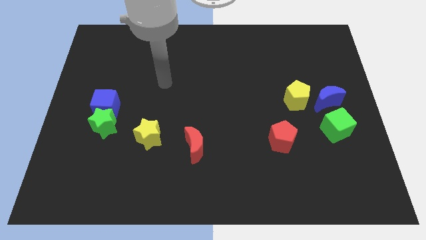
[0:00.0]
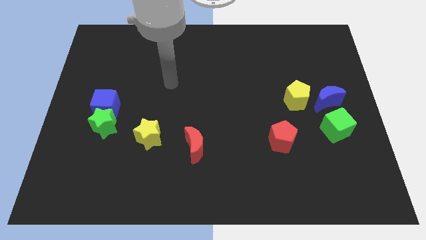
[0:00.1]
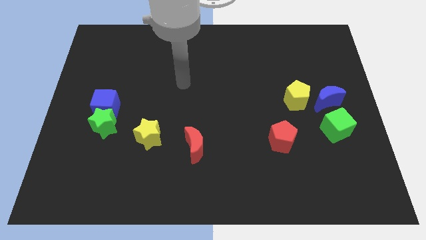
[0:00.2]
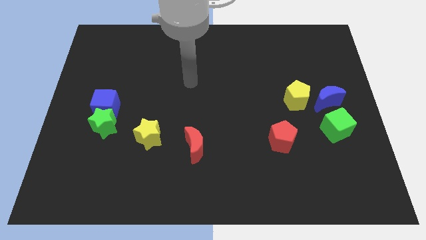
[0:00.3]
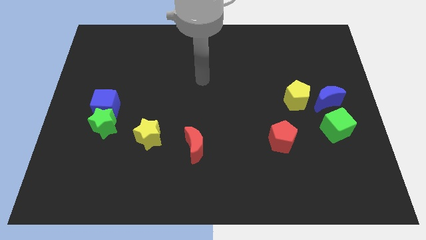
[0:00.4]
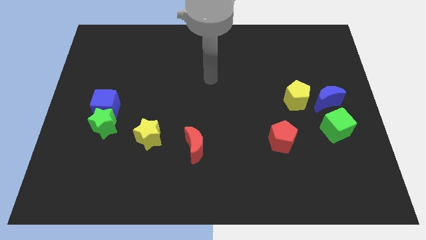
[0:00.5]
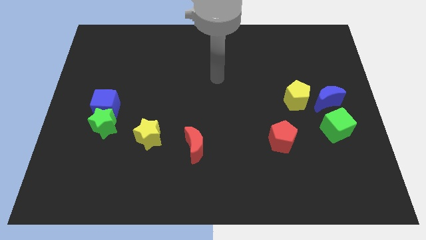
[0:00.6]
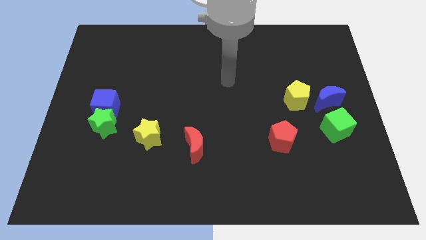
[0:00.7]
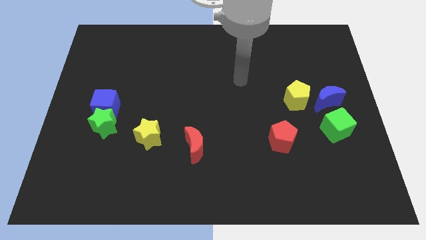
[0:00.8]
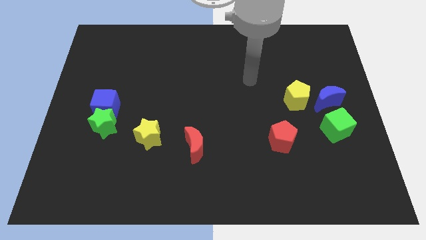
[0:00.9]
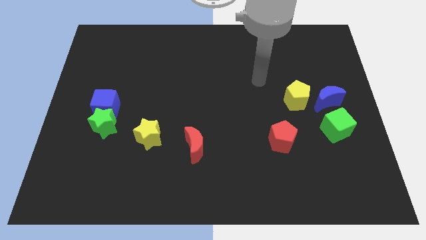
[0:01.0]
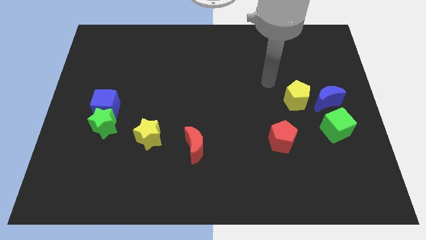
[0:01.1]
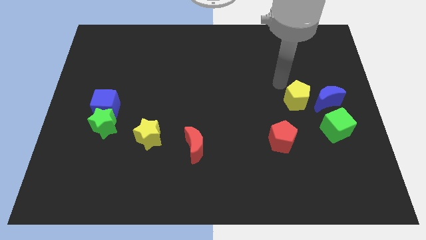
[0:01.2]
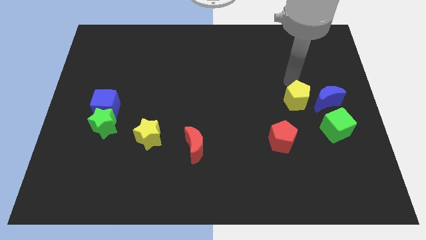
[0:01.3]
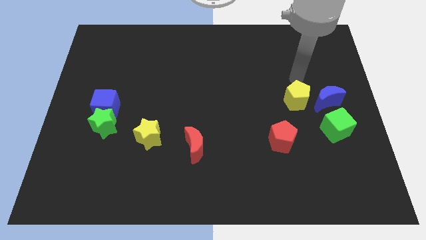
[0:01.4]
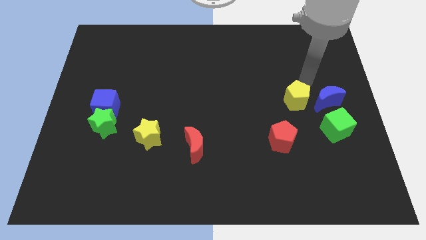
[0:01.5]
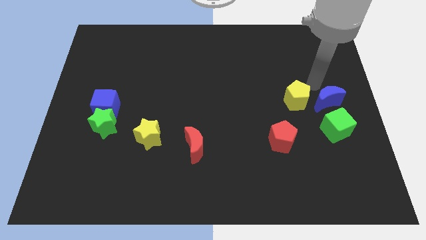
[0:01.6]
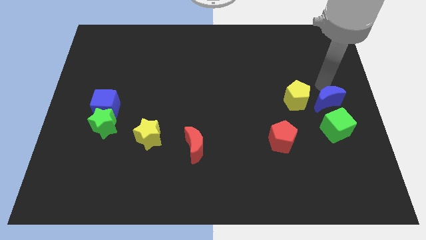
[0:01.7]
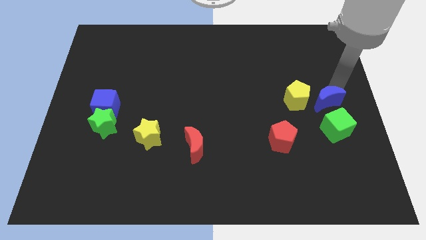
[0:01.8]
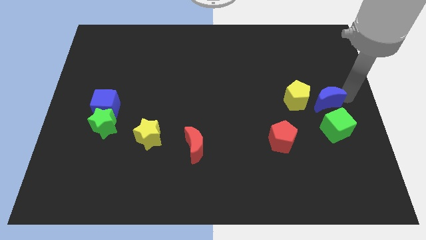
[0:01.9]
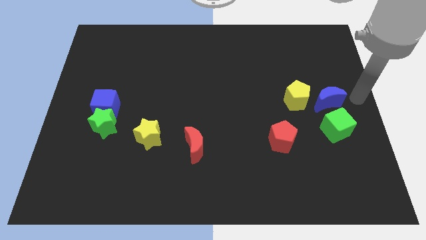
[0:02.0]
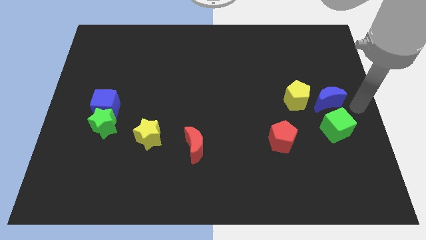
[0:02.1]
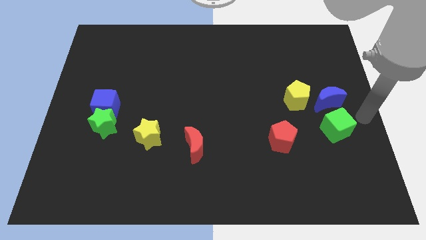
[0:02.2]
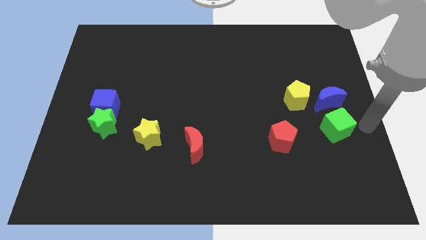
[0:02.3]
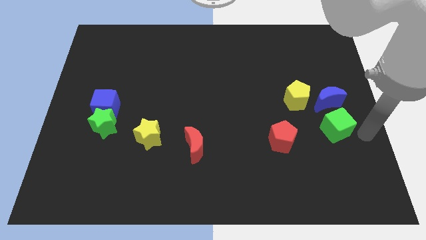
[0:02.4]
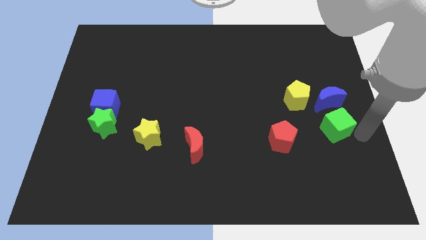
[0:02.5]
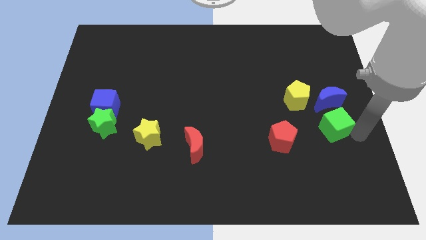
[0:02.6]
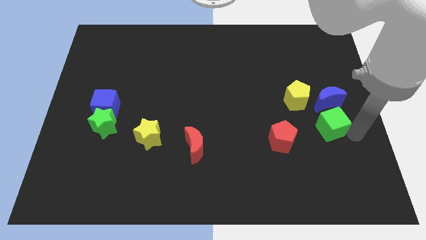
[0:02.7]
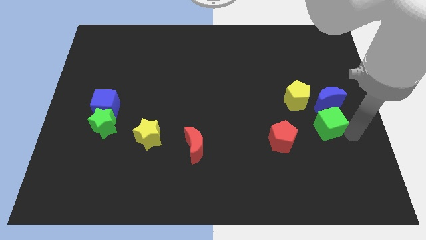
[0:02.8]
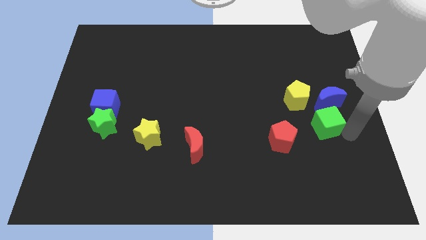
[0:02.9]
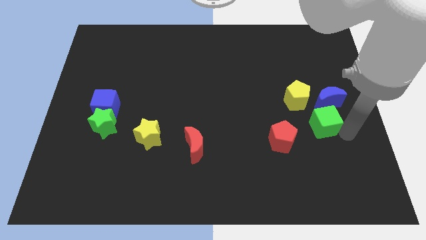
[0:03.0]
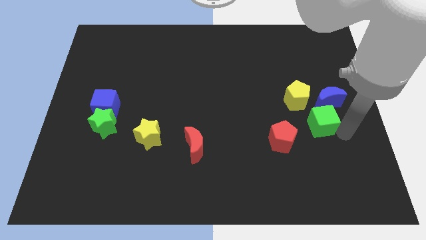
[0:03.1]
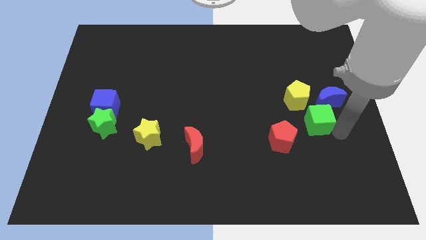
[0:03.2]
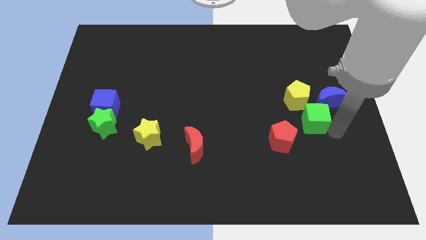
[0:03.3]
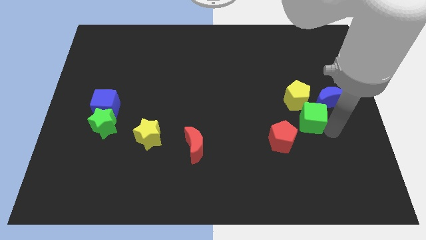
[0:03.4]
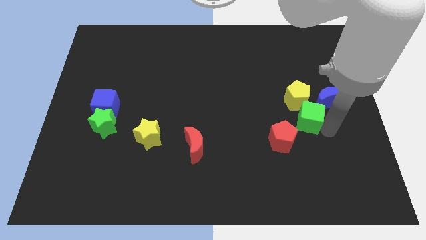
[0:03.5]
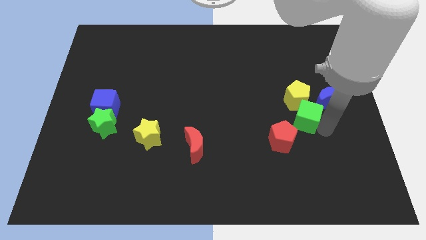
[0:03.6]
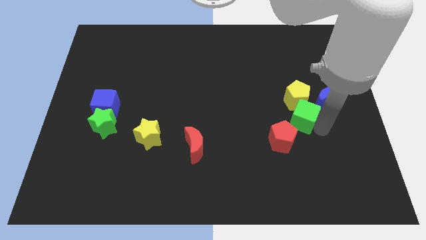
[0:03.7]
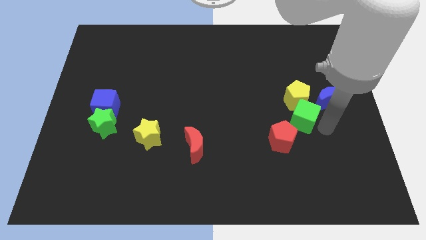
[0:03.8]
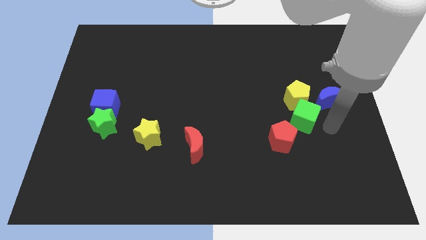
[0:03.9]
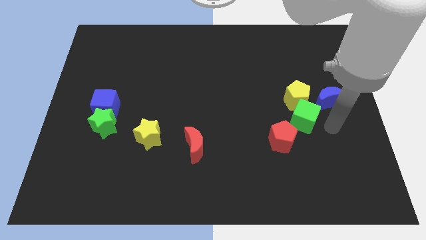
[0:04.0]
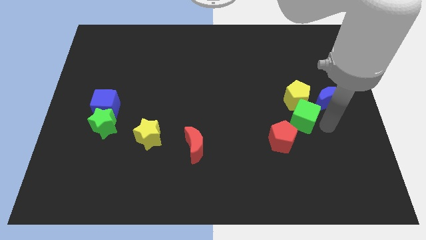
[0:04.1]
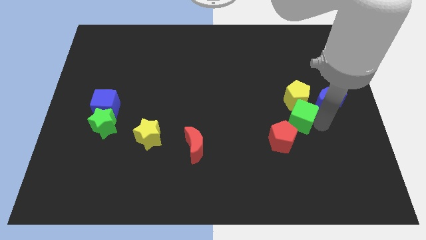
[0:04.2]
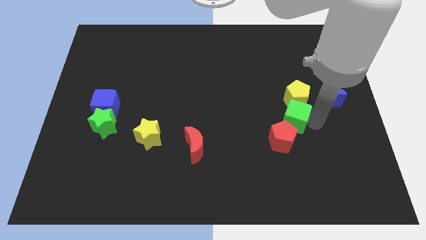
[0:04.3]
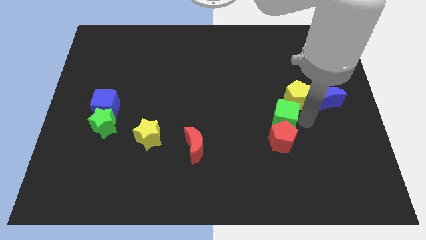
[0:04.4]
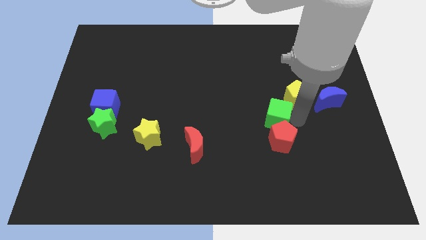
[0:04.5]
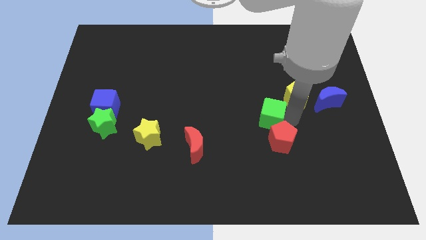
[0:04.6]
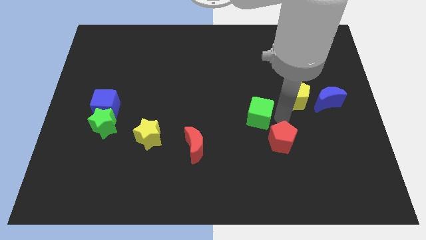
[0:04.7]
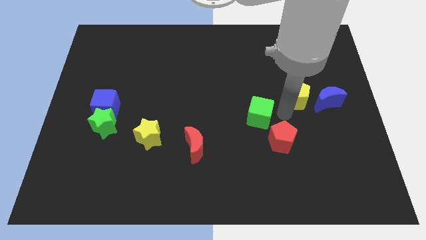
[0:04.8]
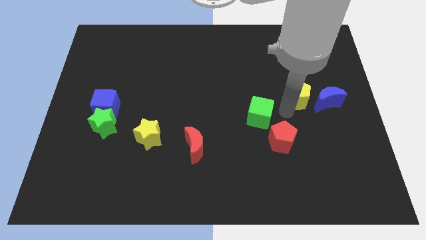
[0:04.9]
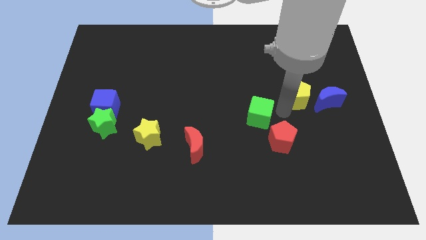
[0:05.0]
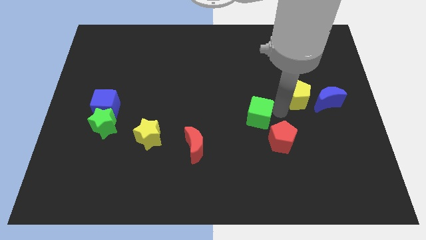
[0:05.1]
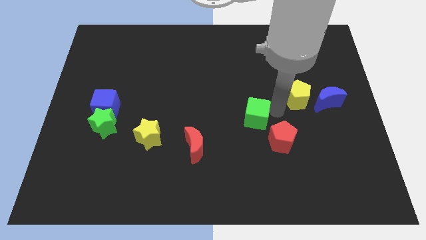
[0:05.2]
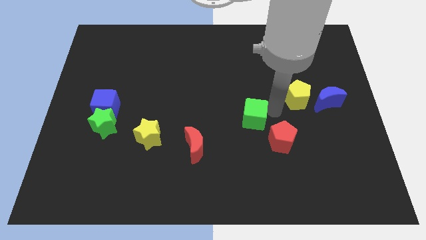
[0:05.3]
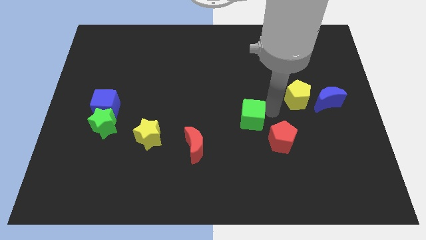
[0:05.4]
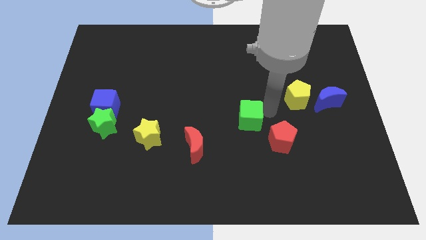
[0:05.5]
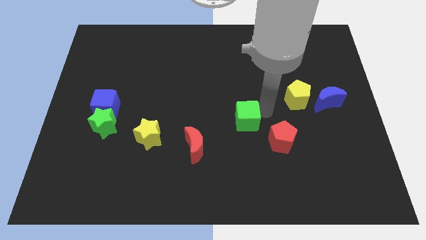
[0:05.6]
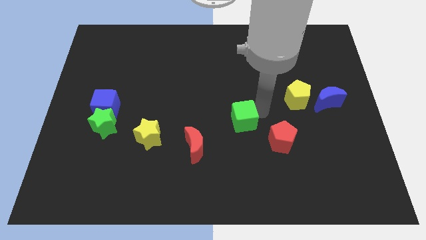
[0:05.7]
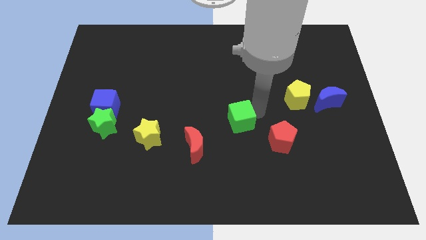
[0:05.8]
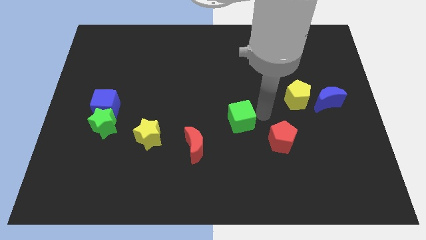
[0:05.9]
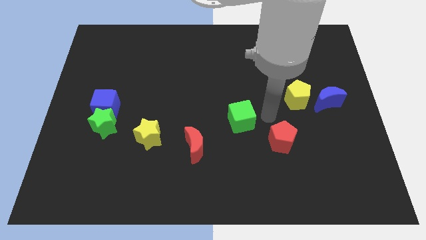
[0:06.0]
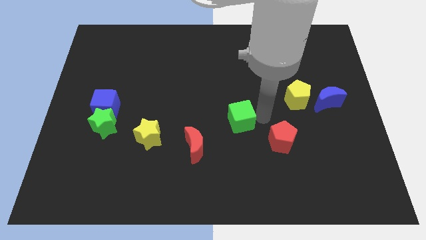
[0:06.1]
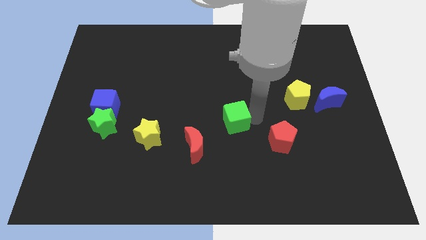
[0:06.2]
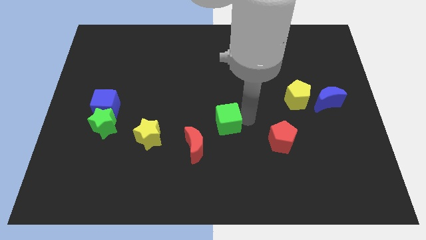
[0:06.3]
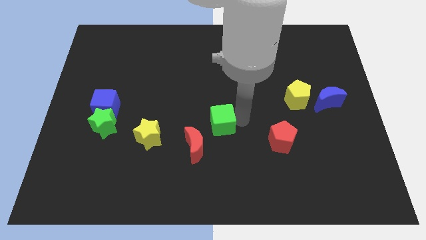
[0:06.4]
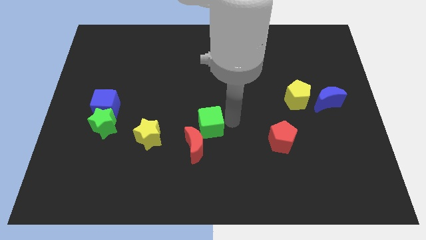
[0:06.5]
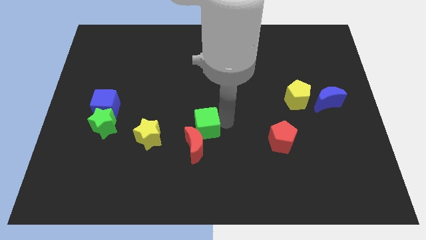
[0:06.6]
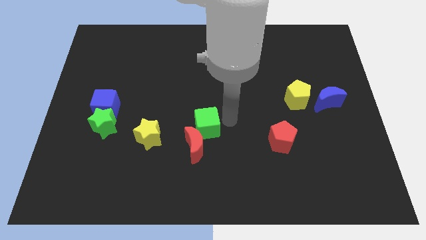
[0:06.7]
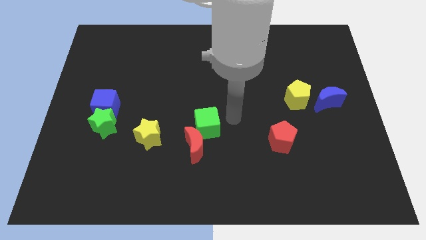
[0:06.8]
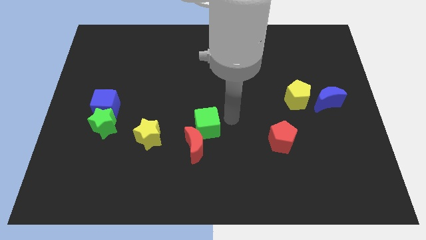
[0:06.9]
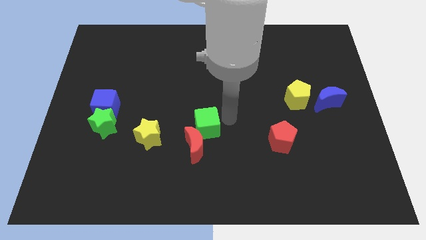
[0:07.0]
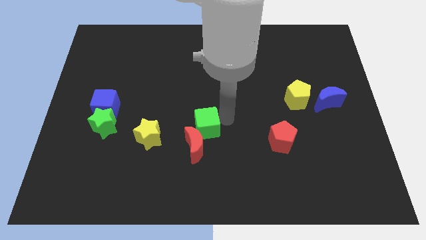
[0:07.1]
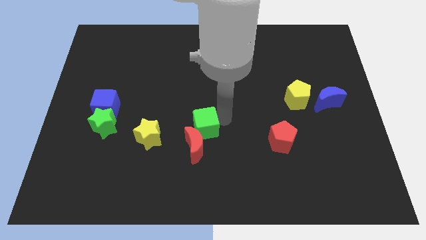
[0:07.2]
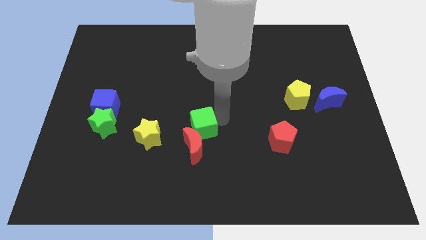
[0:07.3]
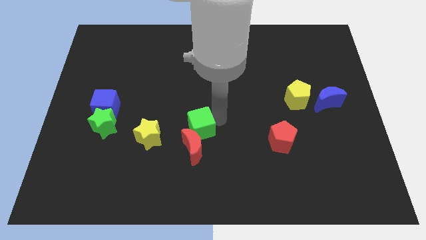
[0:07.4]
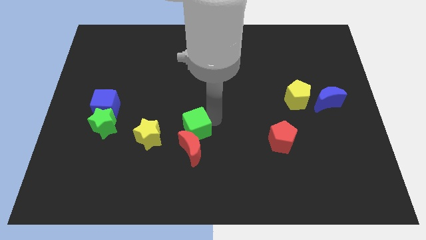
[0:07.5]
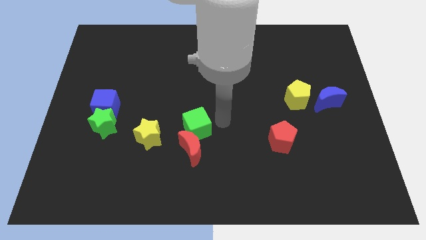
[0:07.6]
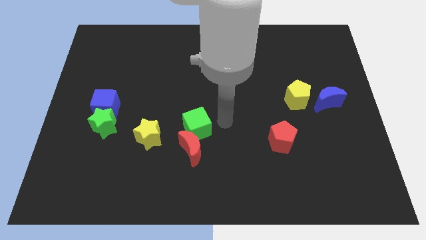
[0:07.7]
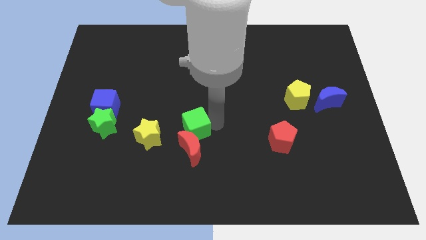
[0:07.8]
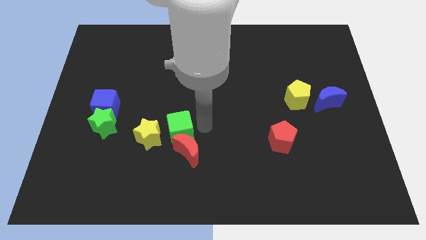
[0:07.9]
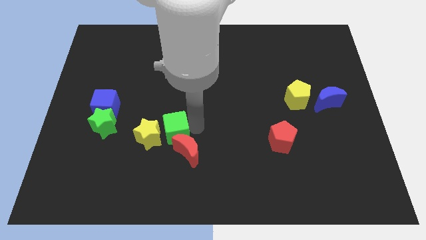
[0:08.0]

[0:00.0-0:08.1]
move the green cube to the yellow star

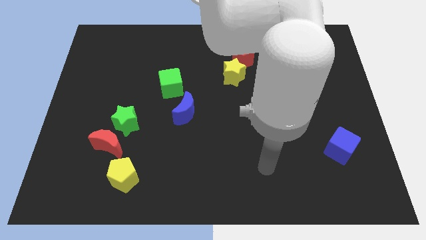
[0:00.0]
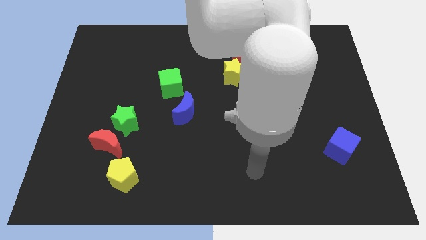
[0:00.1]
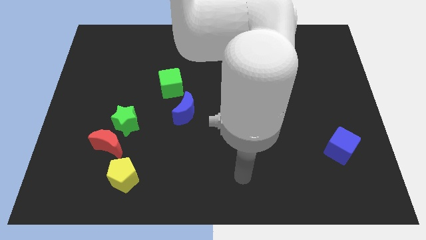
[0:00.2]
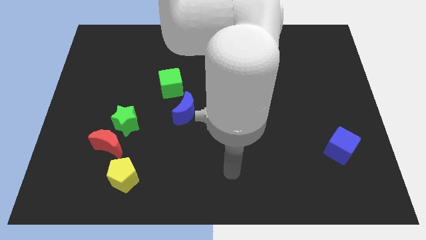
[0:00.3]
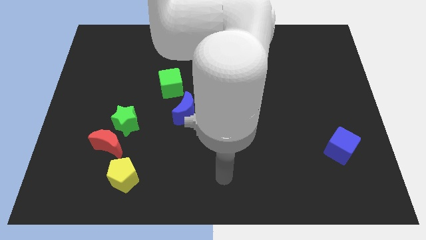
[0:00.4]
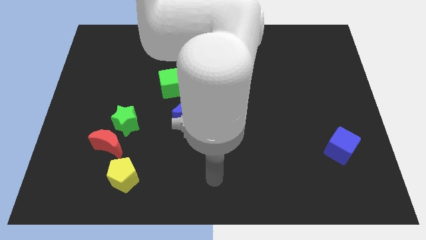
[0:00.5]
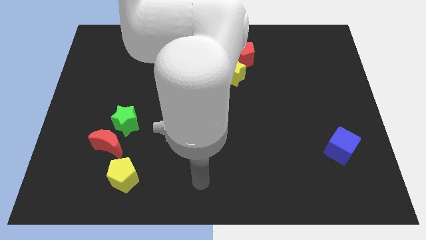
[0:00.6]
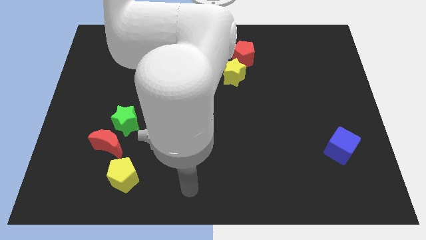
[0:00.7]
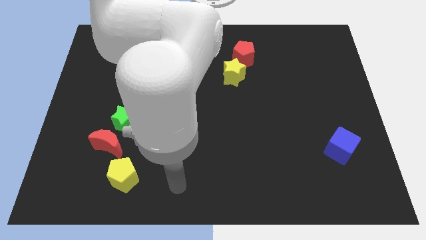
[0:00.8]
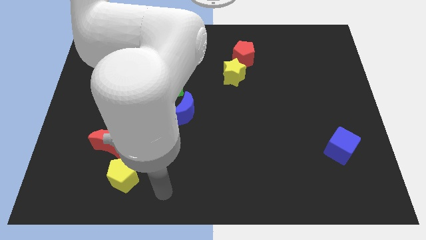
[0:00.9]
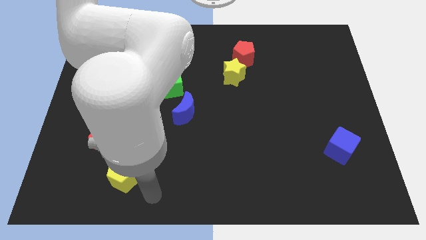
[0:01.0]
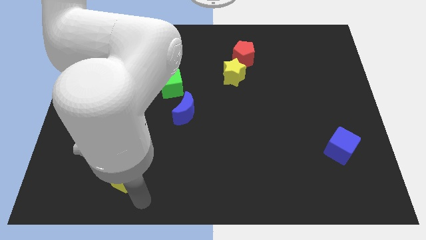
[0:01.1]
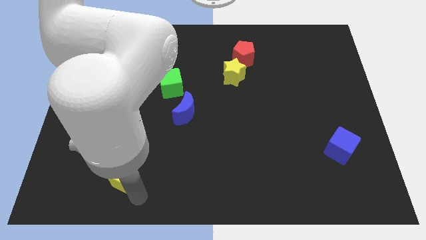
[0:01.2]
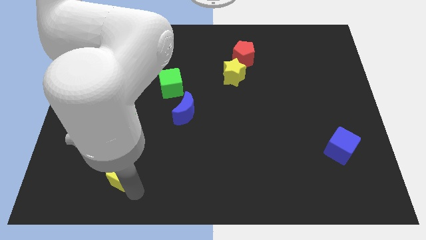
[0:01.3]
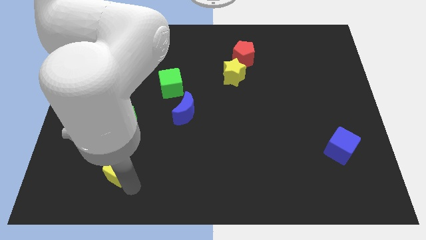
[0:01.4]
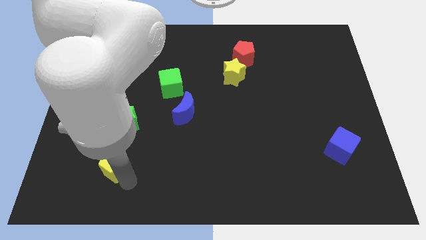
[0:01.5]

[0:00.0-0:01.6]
push the yellow pentagon to the red moon
